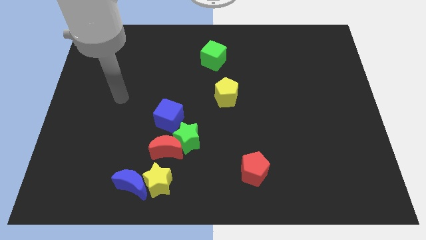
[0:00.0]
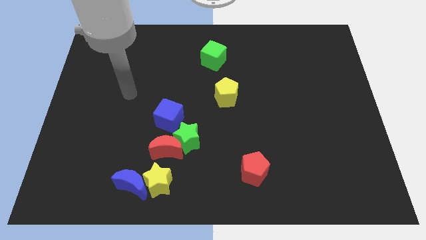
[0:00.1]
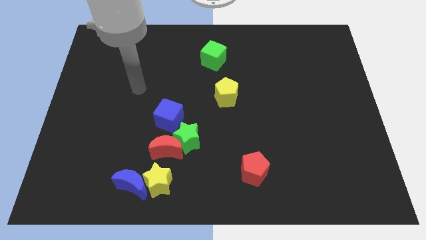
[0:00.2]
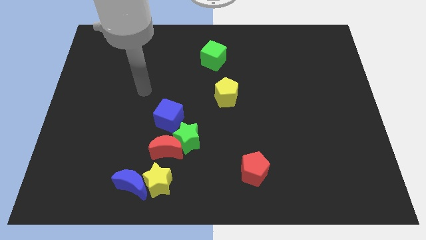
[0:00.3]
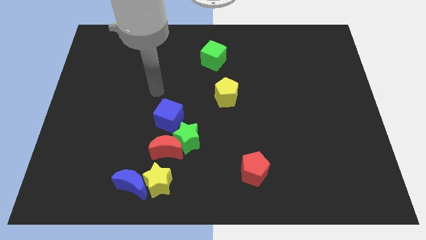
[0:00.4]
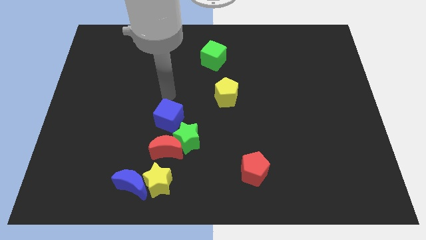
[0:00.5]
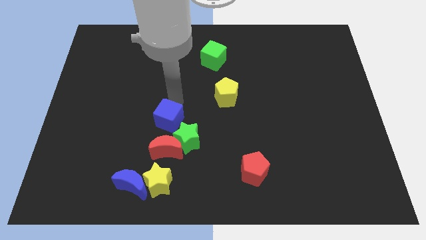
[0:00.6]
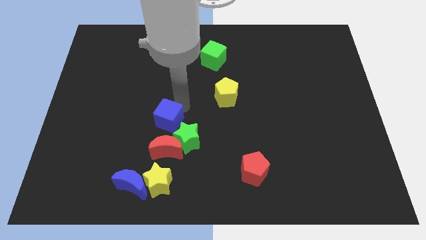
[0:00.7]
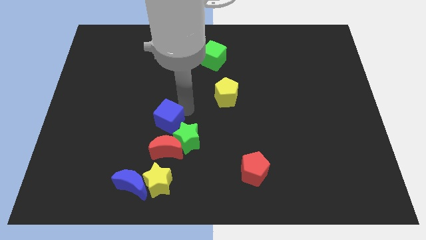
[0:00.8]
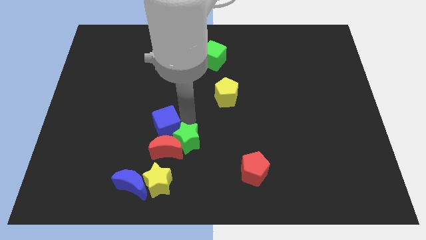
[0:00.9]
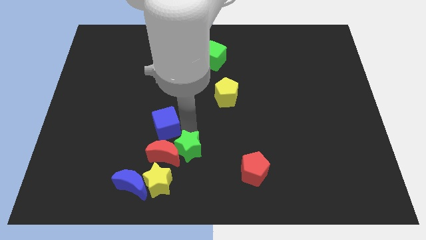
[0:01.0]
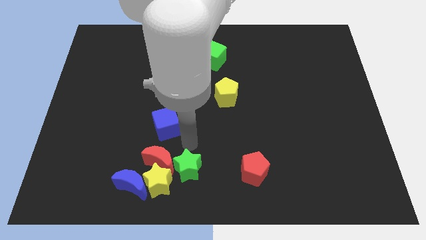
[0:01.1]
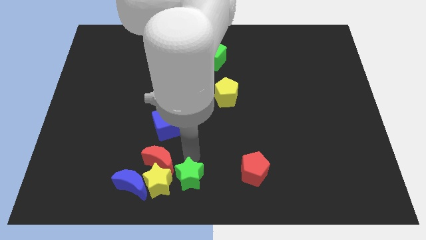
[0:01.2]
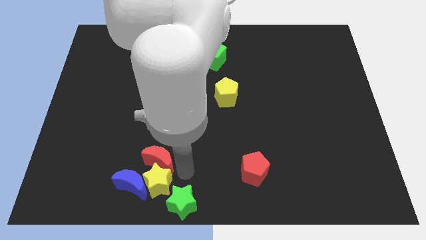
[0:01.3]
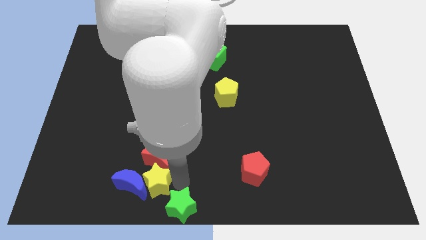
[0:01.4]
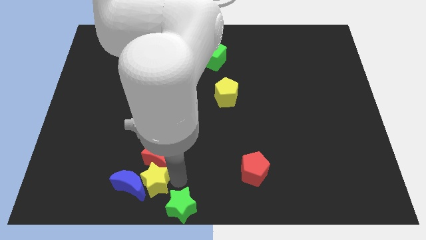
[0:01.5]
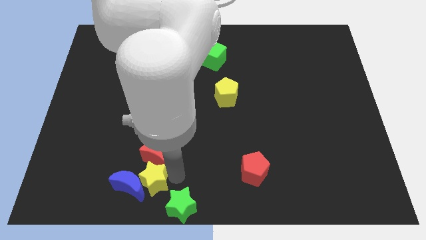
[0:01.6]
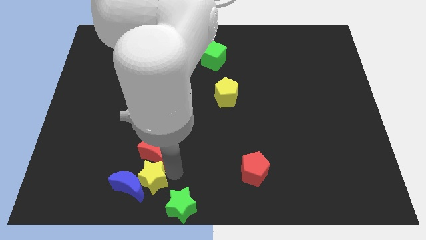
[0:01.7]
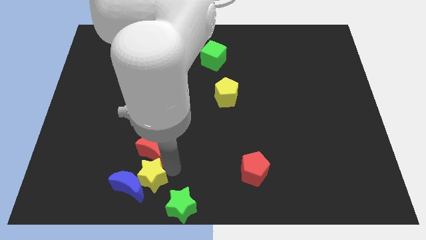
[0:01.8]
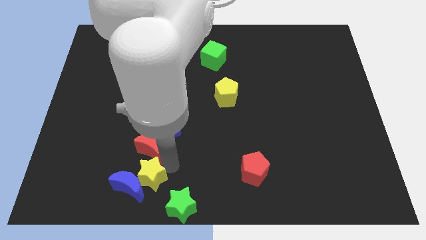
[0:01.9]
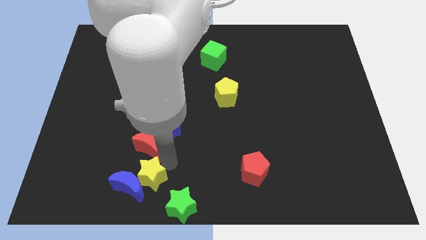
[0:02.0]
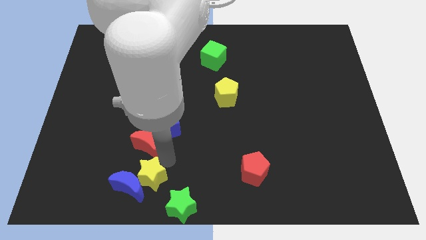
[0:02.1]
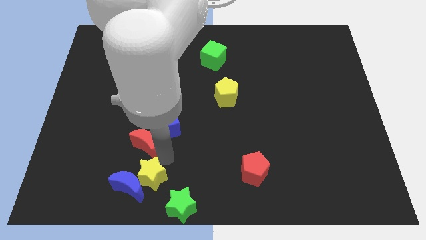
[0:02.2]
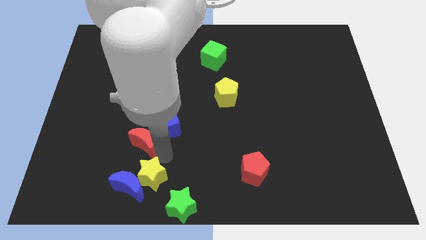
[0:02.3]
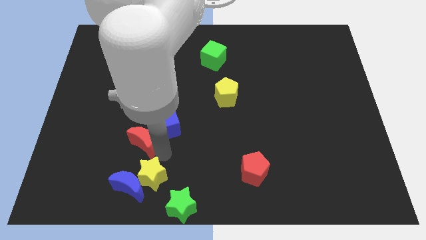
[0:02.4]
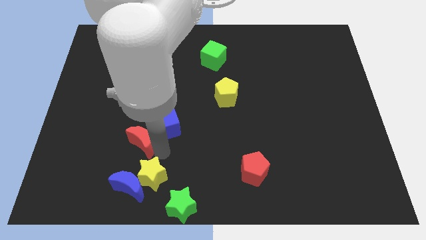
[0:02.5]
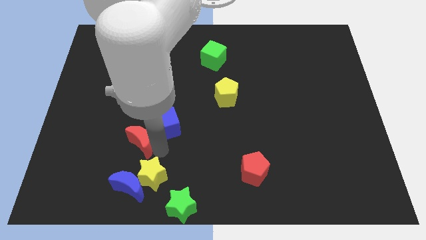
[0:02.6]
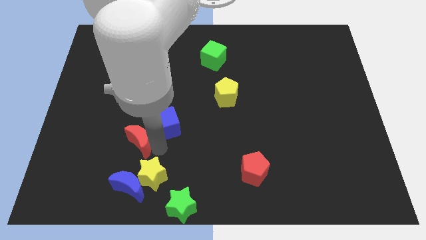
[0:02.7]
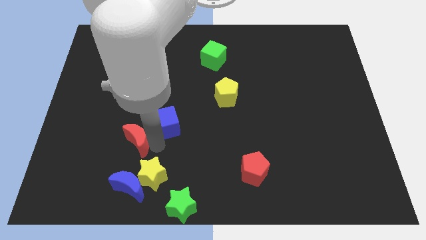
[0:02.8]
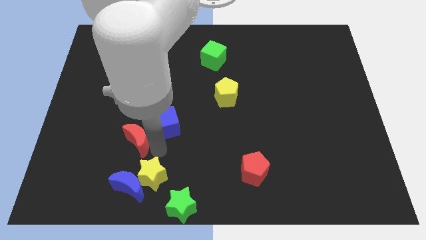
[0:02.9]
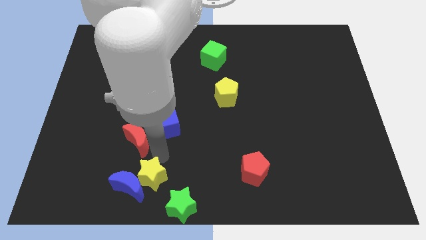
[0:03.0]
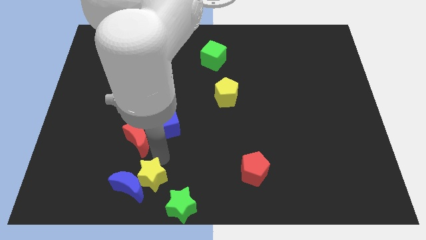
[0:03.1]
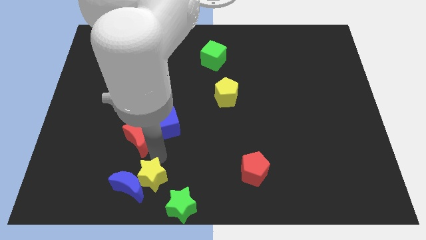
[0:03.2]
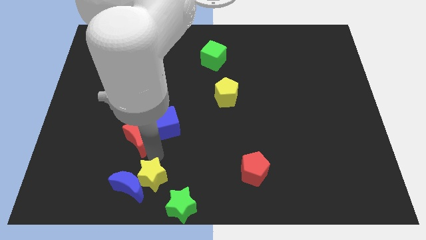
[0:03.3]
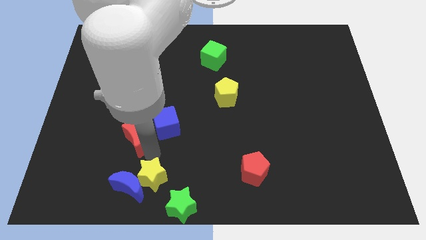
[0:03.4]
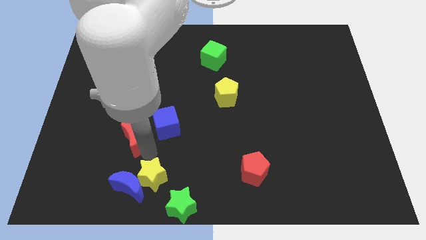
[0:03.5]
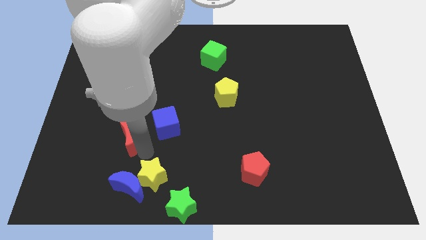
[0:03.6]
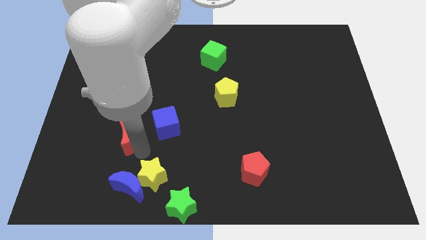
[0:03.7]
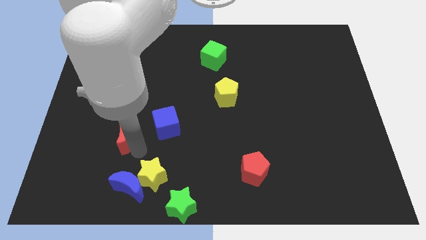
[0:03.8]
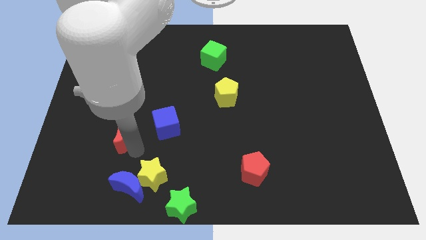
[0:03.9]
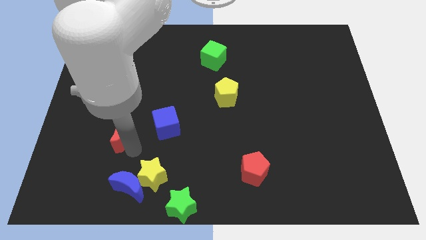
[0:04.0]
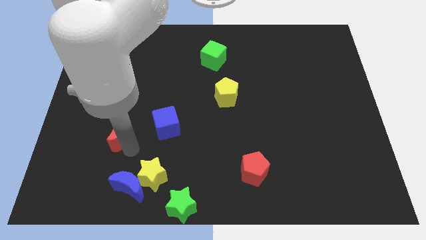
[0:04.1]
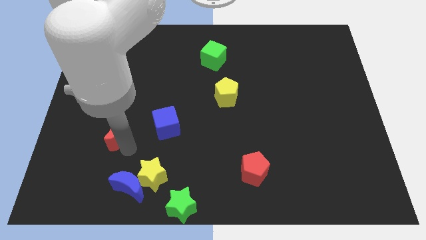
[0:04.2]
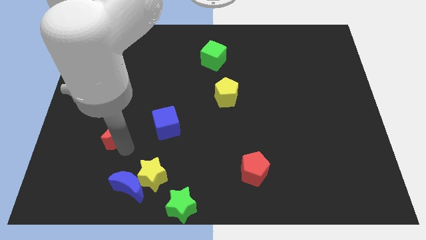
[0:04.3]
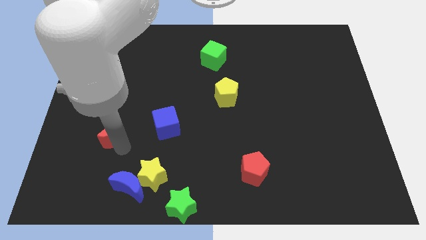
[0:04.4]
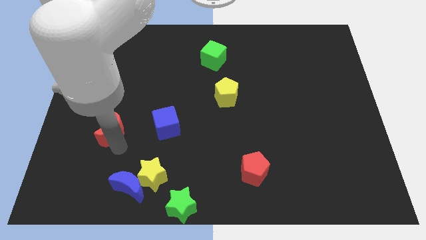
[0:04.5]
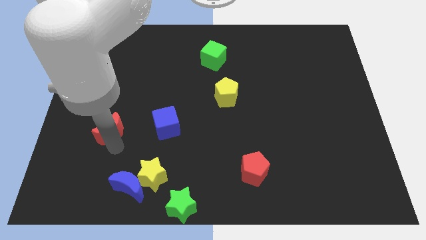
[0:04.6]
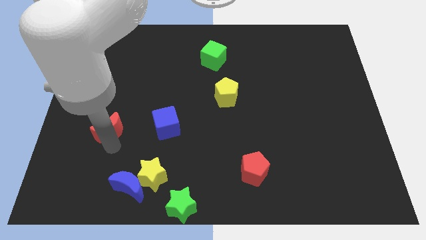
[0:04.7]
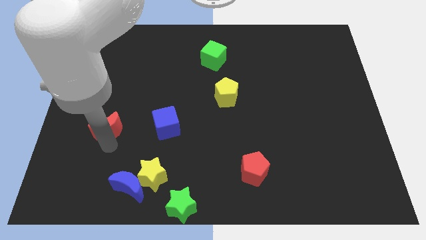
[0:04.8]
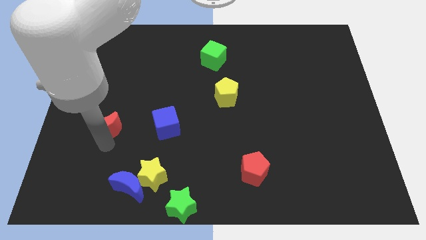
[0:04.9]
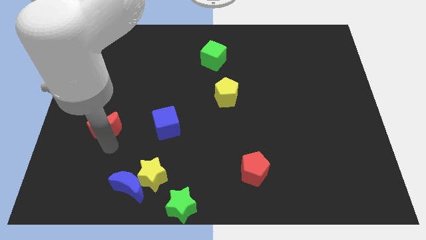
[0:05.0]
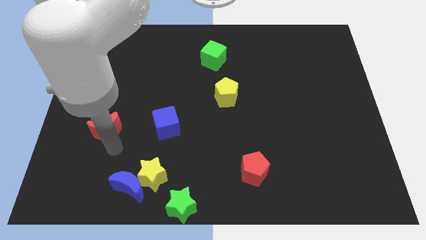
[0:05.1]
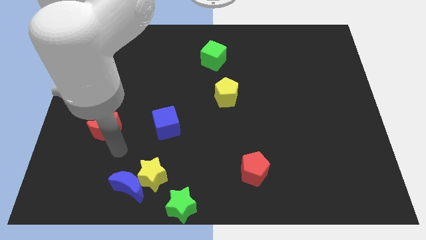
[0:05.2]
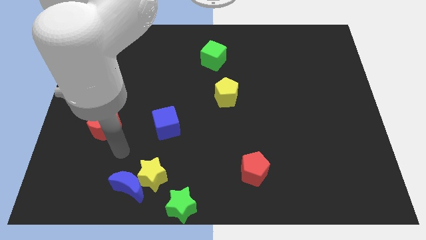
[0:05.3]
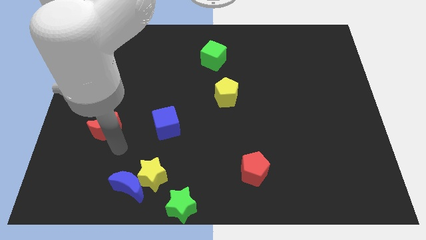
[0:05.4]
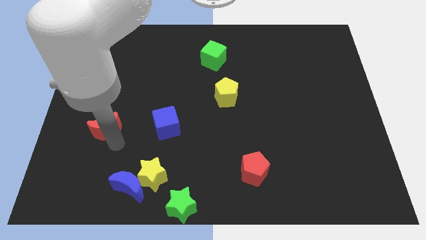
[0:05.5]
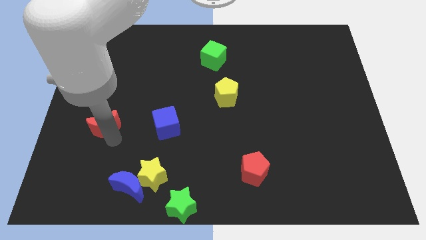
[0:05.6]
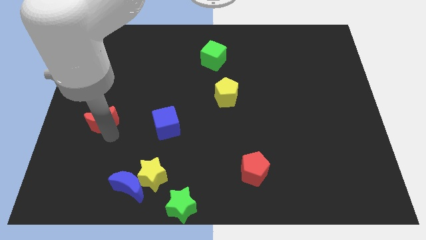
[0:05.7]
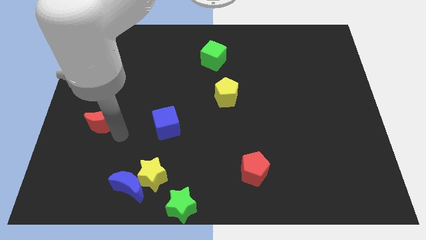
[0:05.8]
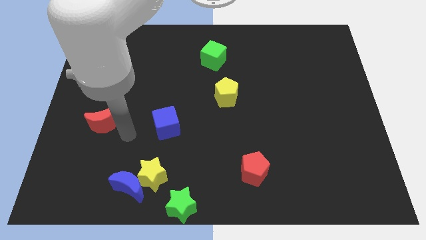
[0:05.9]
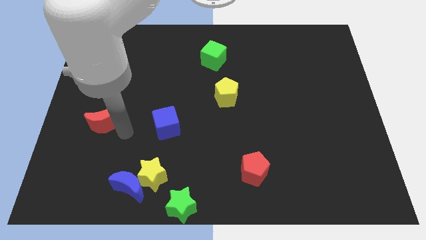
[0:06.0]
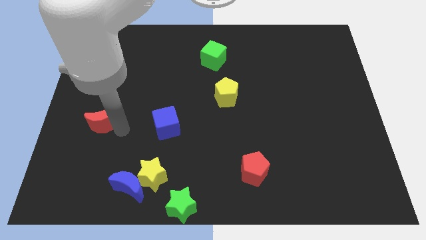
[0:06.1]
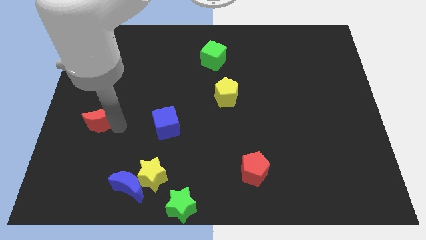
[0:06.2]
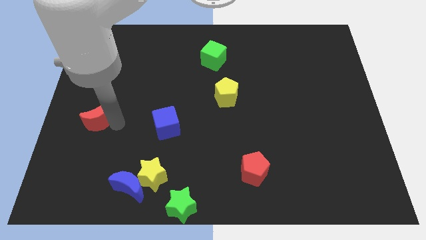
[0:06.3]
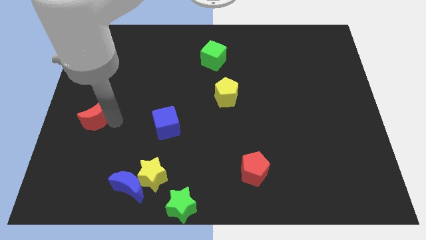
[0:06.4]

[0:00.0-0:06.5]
put the red moon to the left side of the board

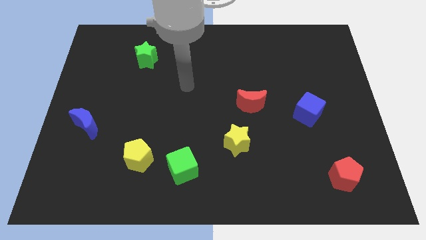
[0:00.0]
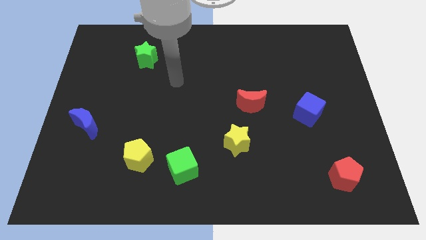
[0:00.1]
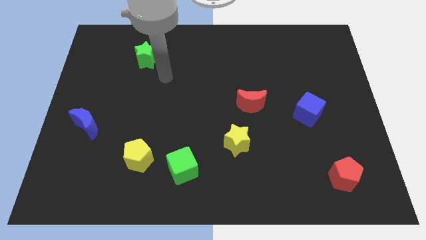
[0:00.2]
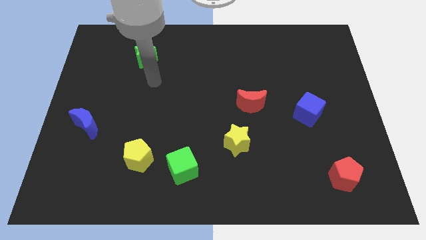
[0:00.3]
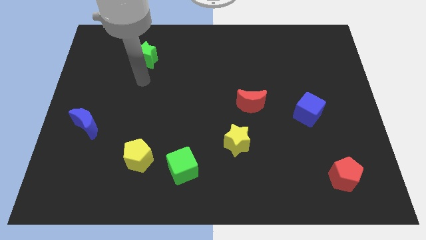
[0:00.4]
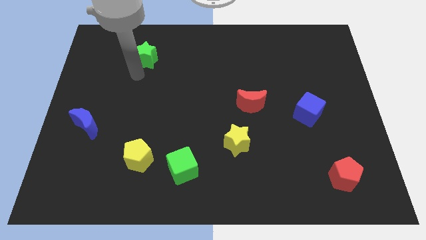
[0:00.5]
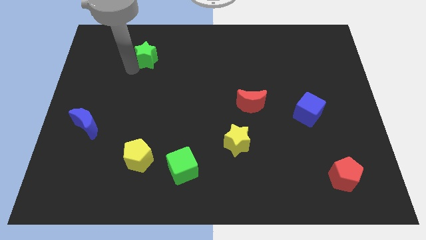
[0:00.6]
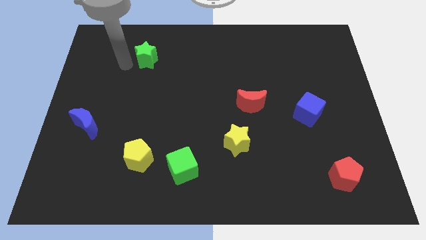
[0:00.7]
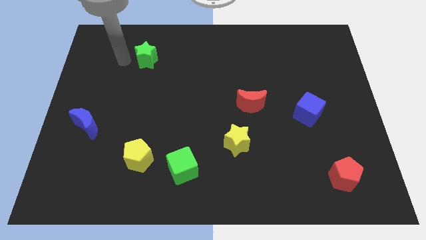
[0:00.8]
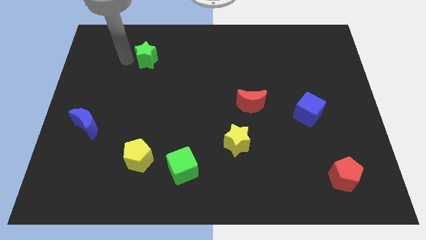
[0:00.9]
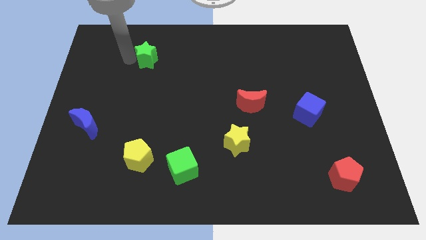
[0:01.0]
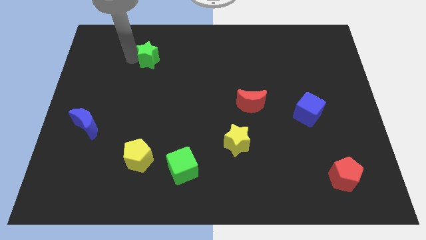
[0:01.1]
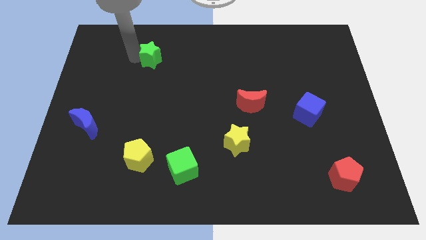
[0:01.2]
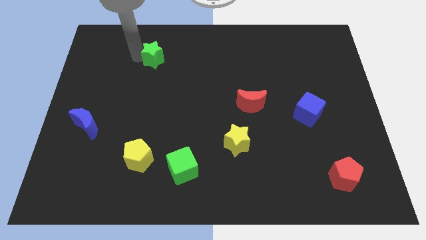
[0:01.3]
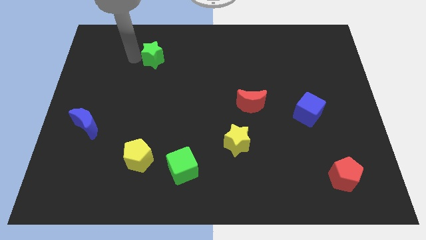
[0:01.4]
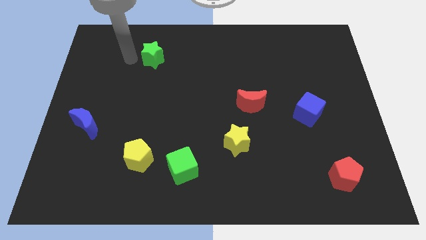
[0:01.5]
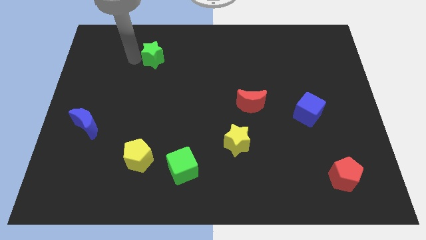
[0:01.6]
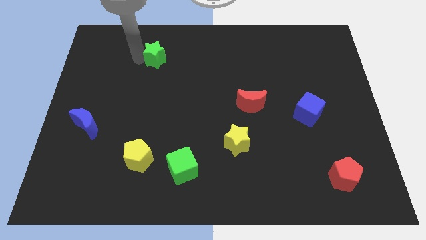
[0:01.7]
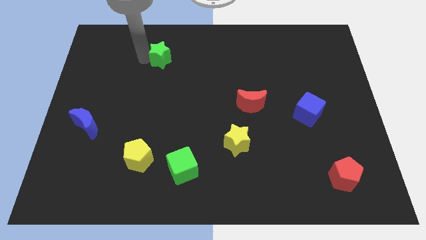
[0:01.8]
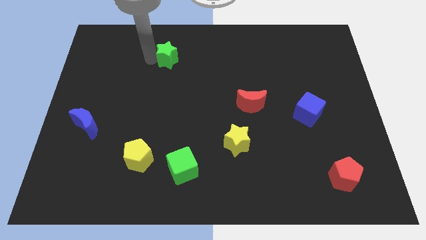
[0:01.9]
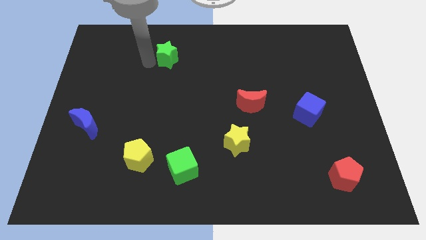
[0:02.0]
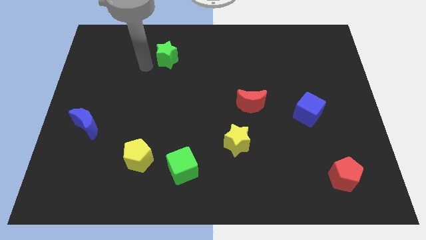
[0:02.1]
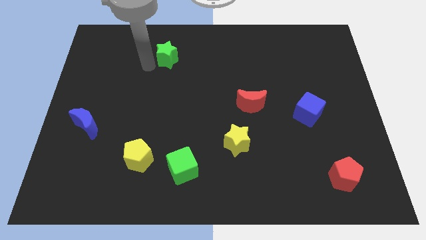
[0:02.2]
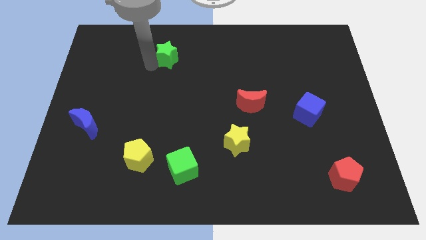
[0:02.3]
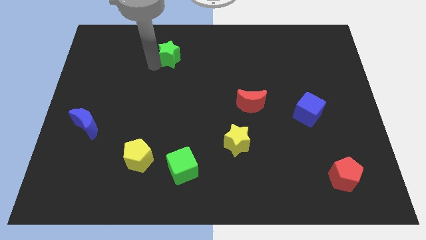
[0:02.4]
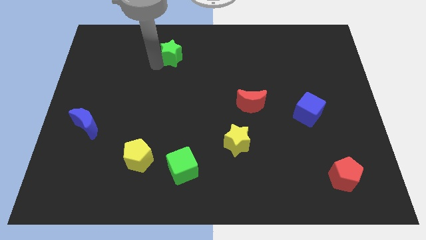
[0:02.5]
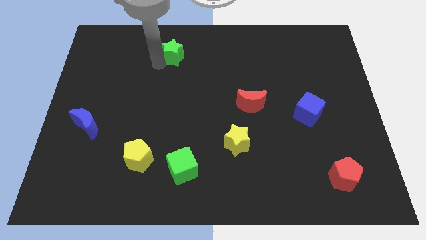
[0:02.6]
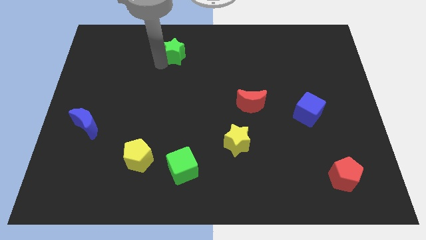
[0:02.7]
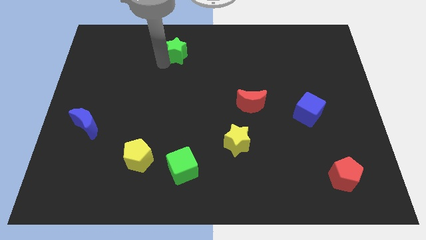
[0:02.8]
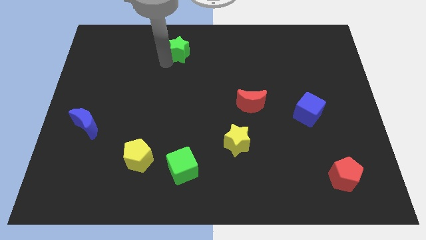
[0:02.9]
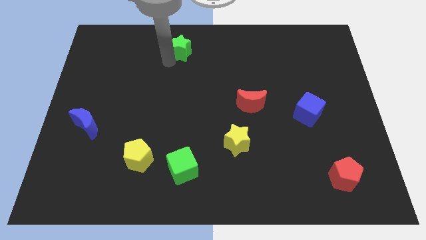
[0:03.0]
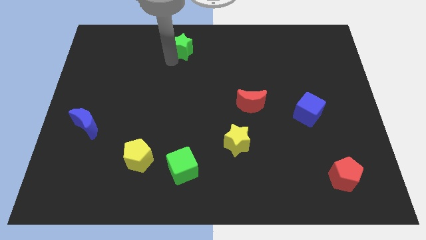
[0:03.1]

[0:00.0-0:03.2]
slide the green star to the top
